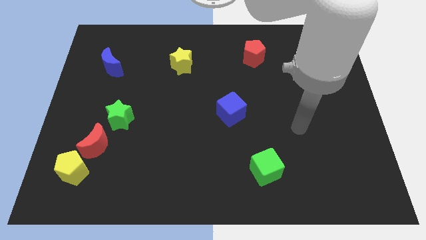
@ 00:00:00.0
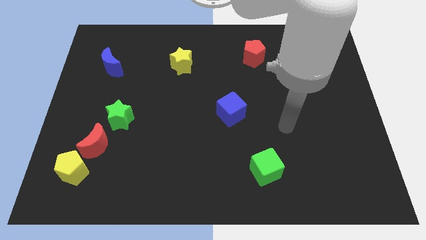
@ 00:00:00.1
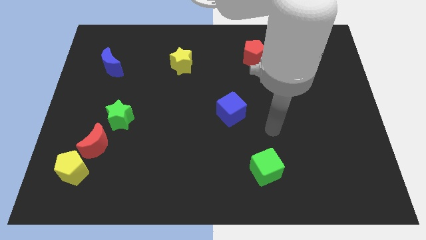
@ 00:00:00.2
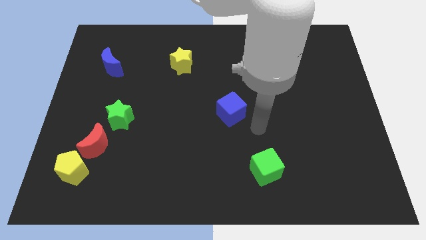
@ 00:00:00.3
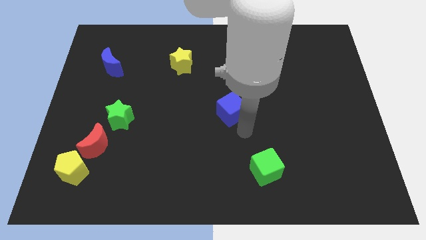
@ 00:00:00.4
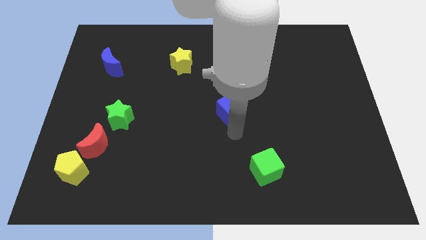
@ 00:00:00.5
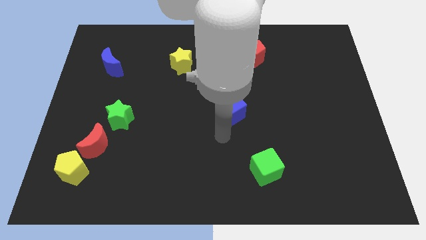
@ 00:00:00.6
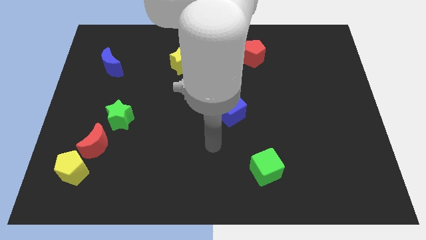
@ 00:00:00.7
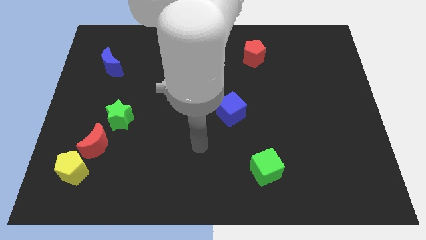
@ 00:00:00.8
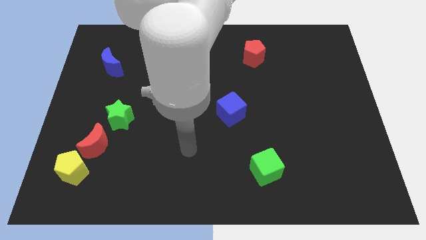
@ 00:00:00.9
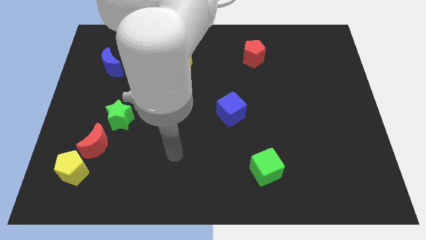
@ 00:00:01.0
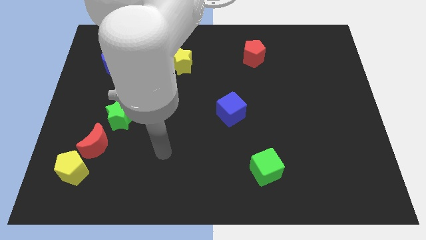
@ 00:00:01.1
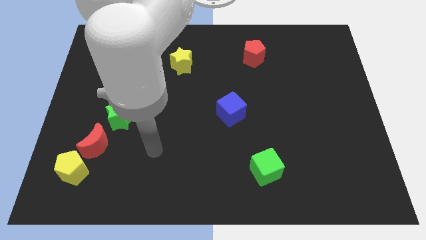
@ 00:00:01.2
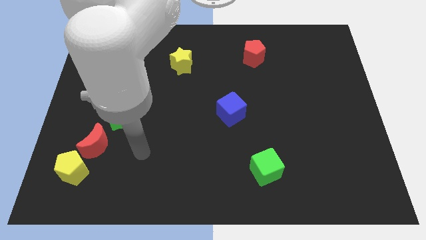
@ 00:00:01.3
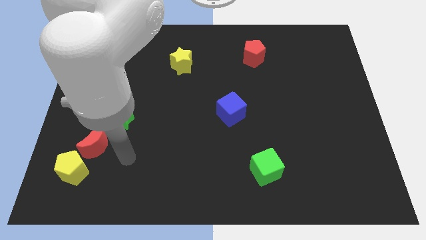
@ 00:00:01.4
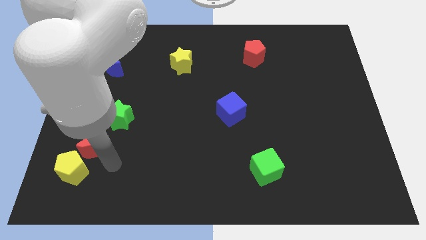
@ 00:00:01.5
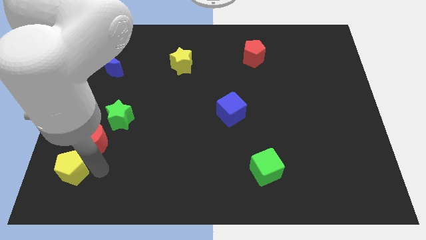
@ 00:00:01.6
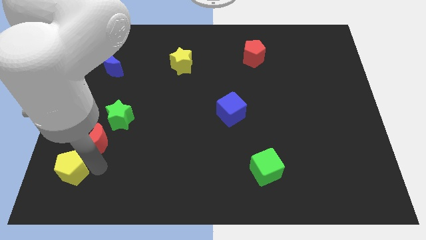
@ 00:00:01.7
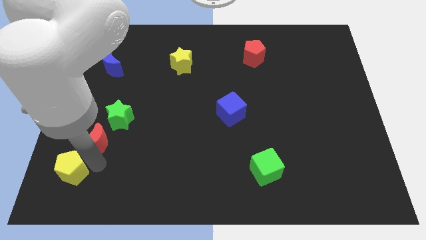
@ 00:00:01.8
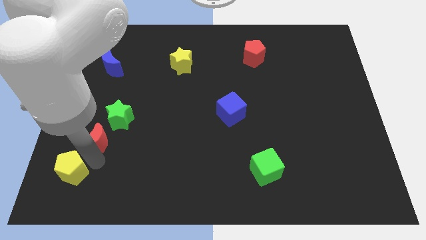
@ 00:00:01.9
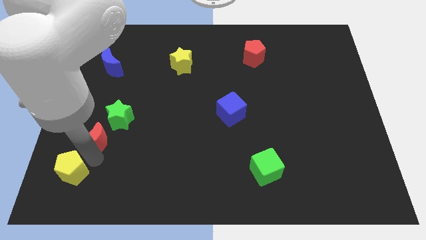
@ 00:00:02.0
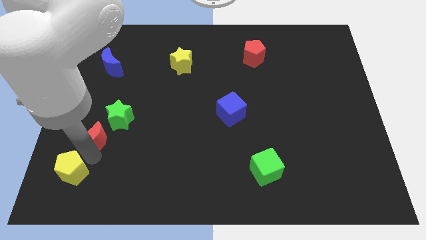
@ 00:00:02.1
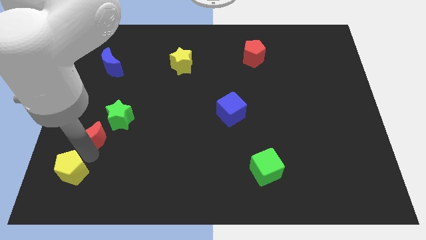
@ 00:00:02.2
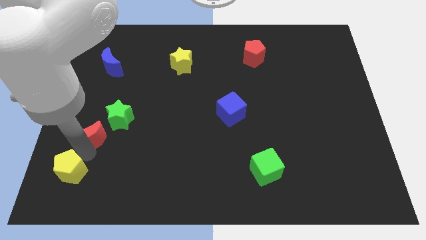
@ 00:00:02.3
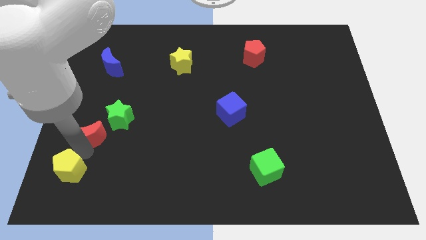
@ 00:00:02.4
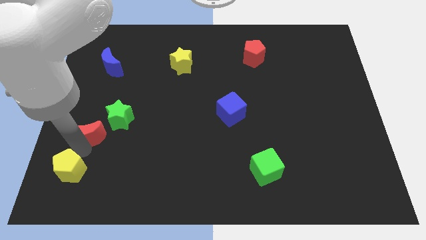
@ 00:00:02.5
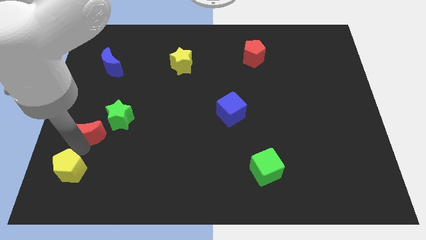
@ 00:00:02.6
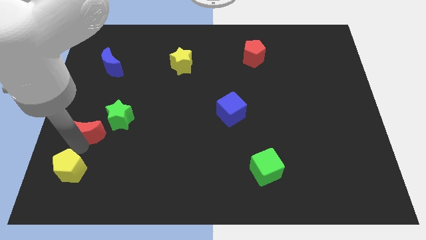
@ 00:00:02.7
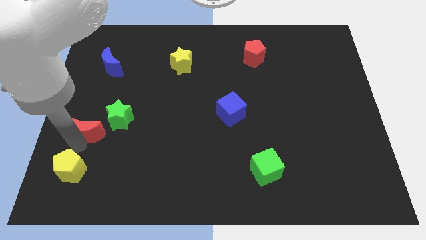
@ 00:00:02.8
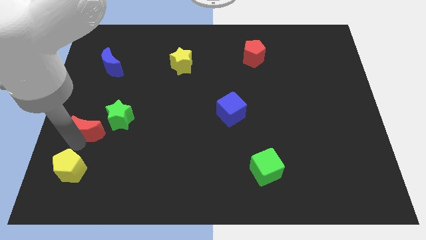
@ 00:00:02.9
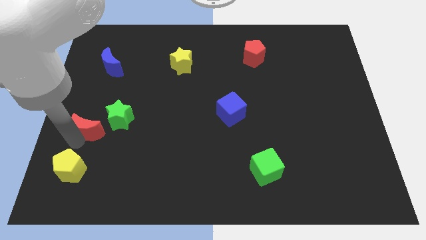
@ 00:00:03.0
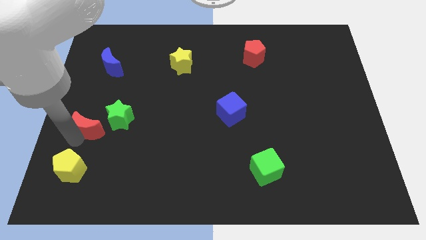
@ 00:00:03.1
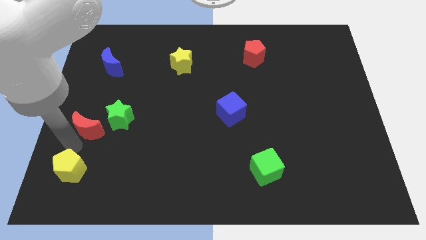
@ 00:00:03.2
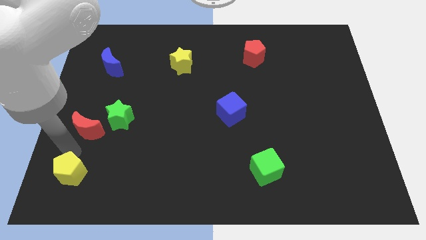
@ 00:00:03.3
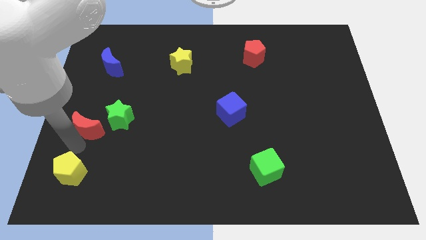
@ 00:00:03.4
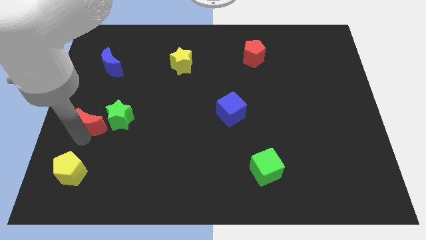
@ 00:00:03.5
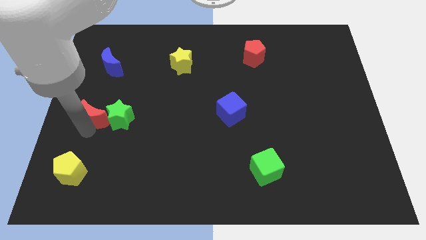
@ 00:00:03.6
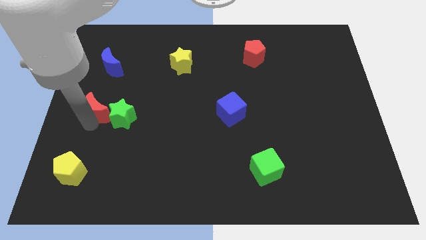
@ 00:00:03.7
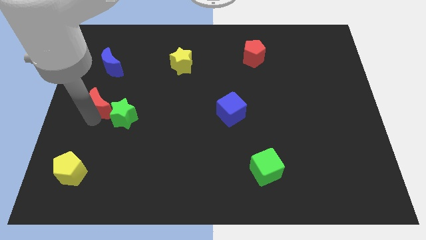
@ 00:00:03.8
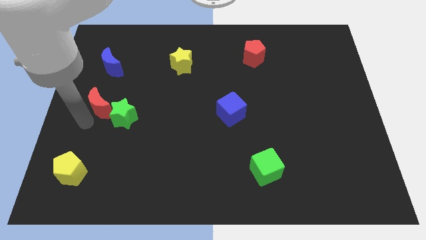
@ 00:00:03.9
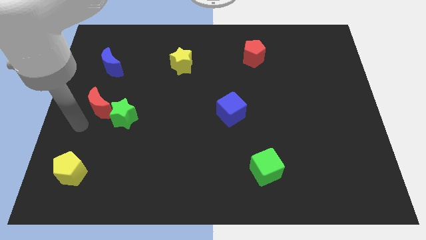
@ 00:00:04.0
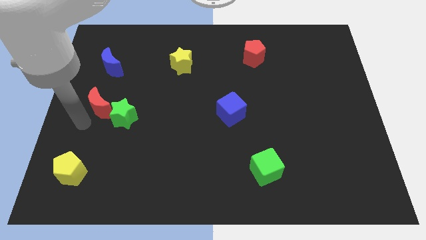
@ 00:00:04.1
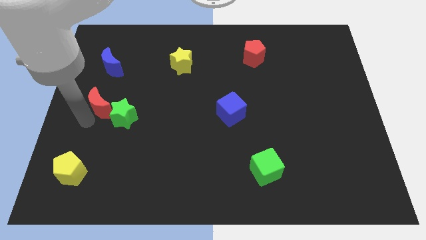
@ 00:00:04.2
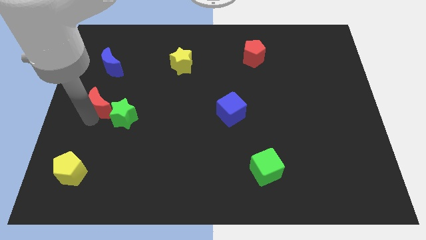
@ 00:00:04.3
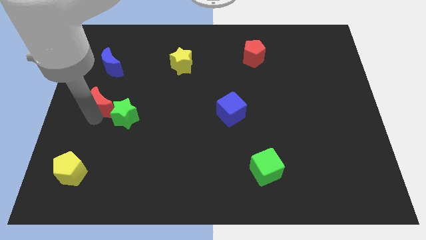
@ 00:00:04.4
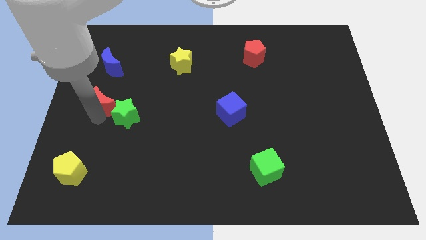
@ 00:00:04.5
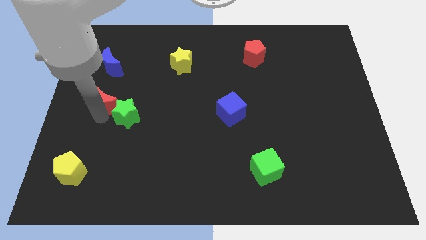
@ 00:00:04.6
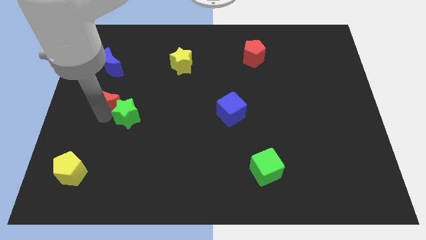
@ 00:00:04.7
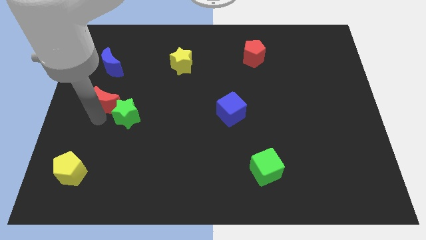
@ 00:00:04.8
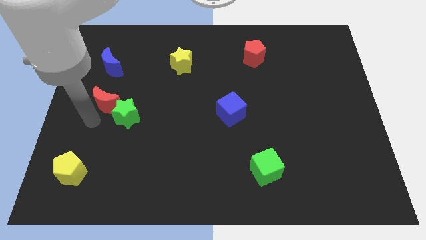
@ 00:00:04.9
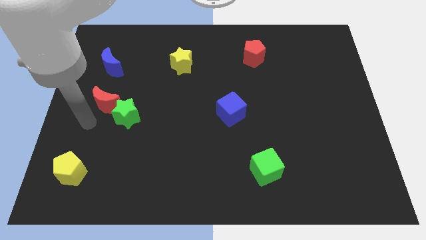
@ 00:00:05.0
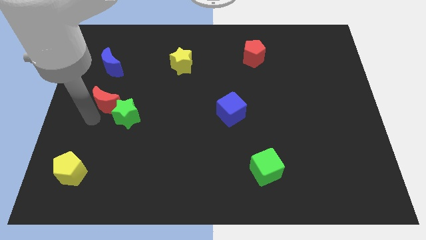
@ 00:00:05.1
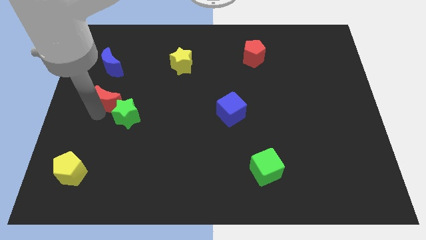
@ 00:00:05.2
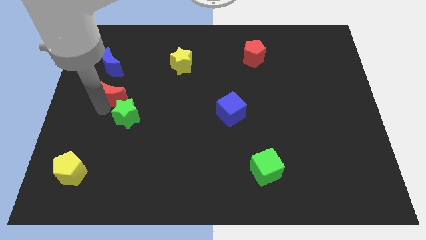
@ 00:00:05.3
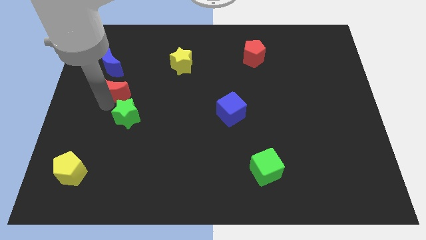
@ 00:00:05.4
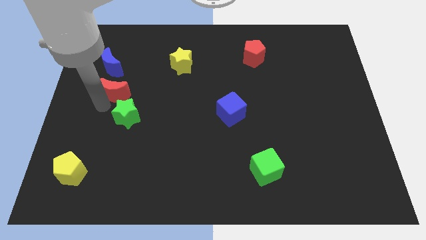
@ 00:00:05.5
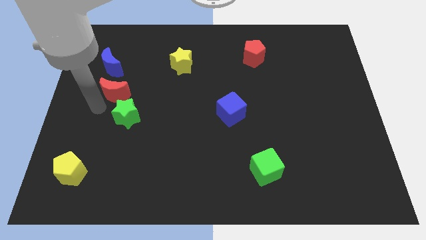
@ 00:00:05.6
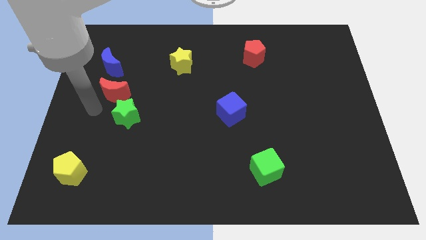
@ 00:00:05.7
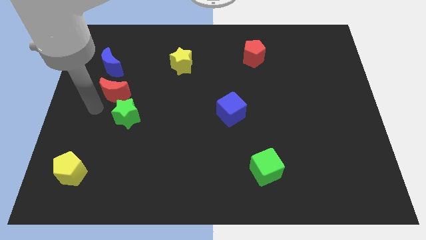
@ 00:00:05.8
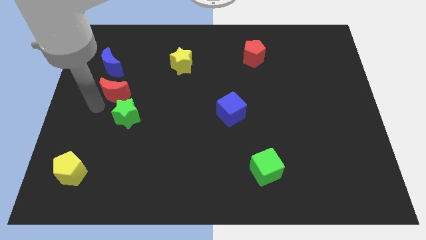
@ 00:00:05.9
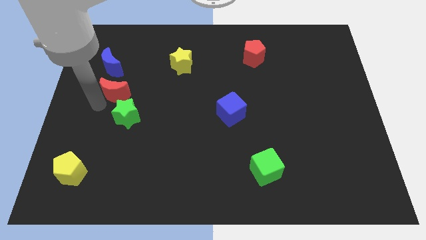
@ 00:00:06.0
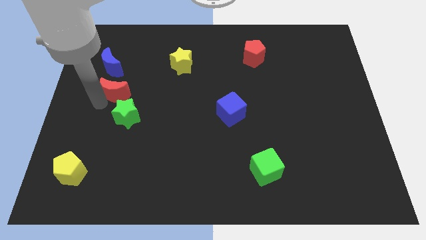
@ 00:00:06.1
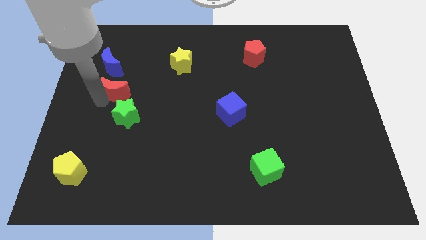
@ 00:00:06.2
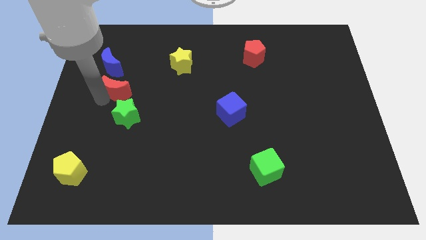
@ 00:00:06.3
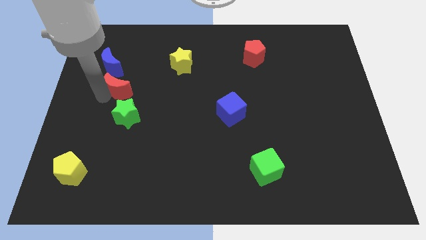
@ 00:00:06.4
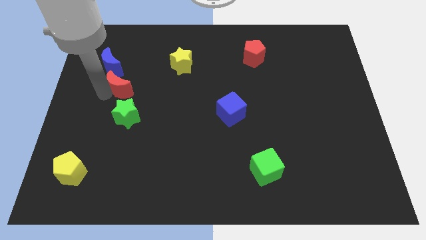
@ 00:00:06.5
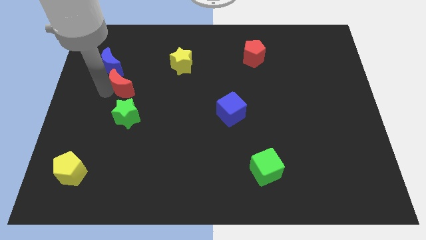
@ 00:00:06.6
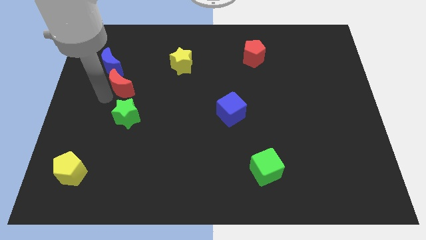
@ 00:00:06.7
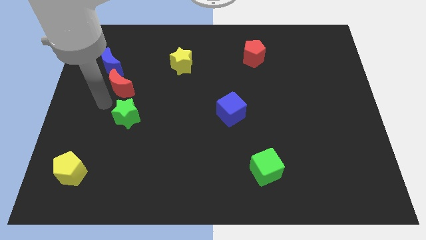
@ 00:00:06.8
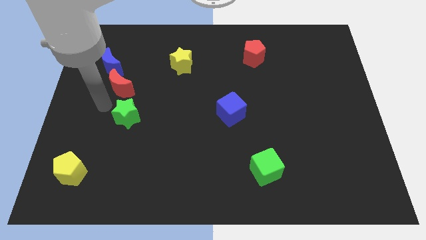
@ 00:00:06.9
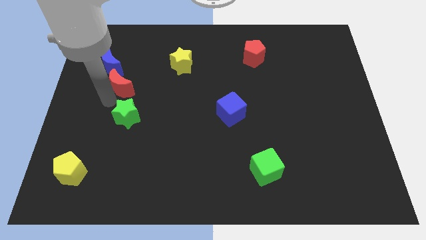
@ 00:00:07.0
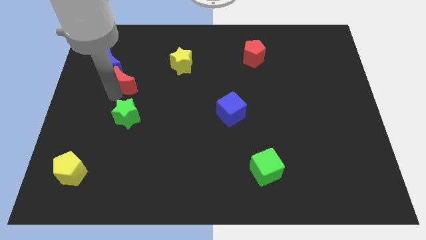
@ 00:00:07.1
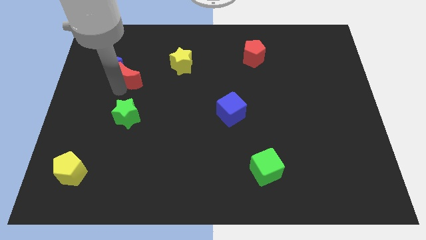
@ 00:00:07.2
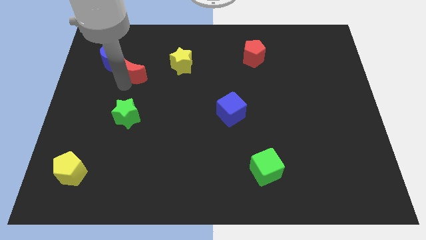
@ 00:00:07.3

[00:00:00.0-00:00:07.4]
slide the red moon just left of the yellow star
